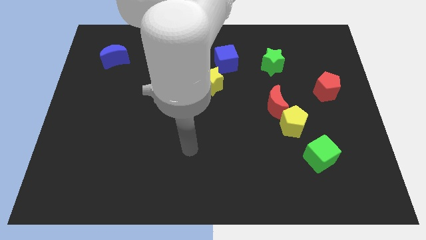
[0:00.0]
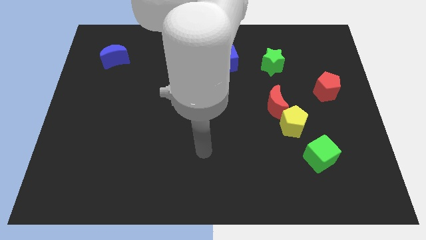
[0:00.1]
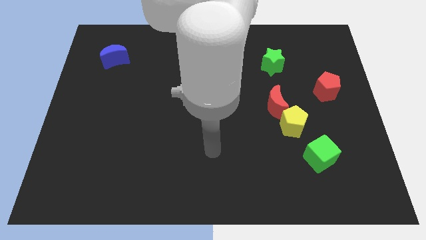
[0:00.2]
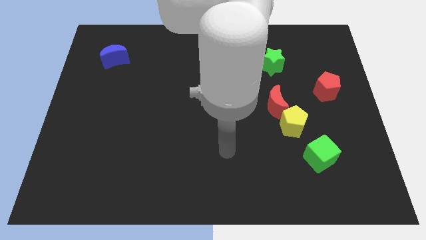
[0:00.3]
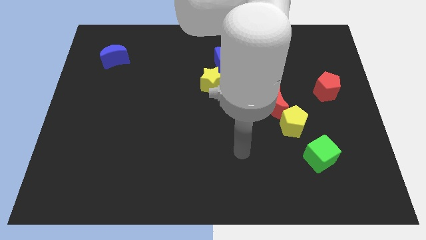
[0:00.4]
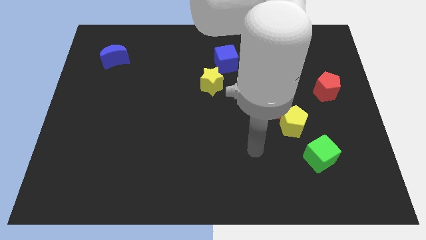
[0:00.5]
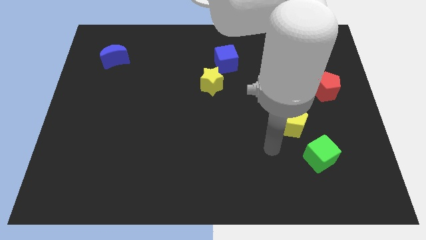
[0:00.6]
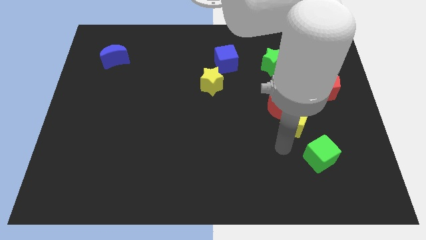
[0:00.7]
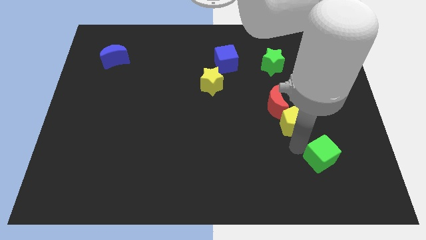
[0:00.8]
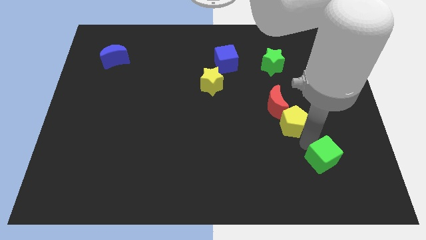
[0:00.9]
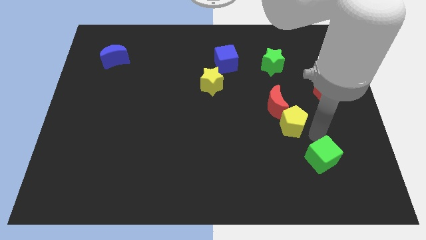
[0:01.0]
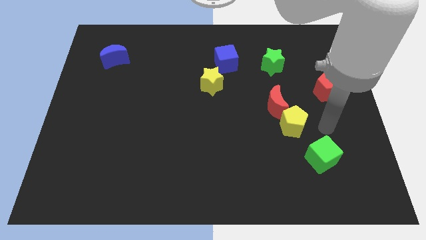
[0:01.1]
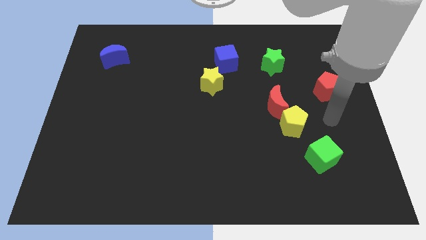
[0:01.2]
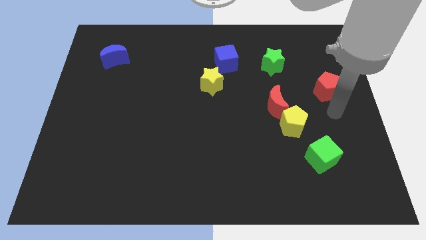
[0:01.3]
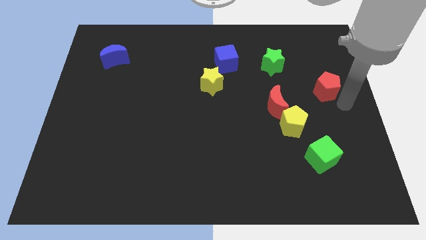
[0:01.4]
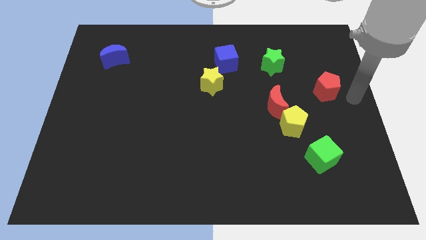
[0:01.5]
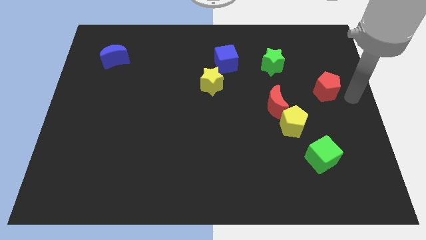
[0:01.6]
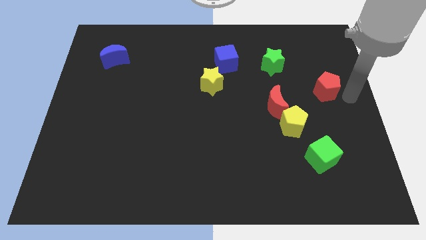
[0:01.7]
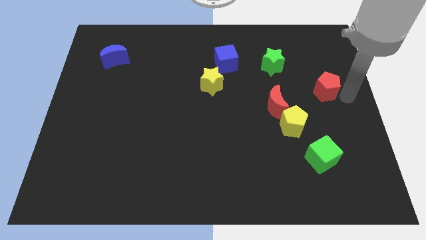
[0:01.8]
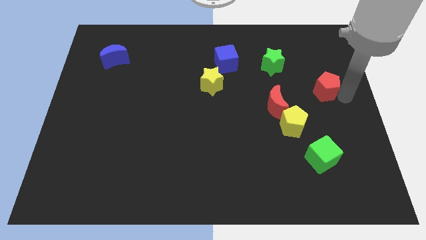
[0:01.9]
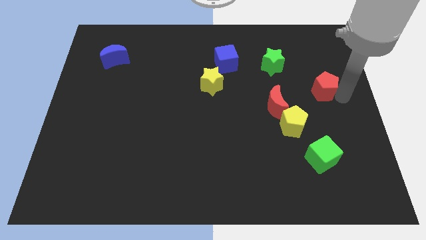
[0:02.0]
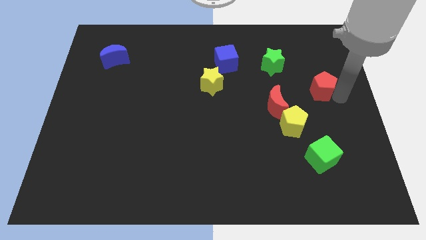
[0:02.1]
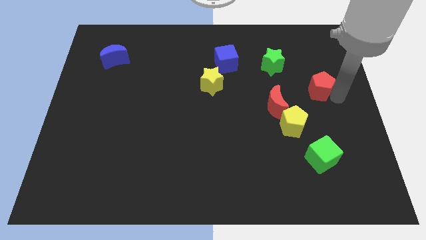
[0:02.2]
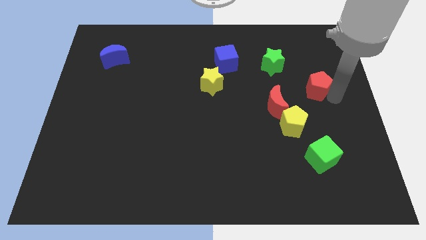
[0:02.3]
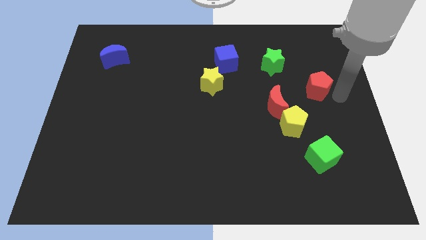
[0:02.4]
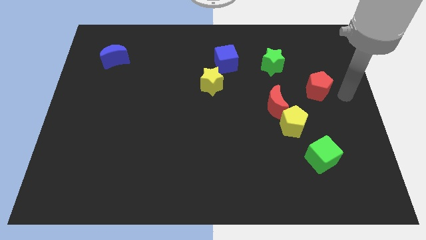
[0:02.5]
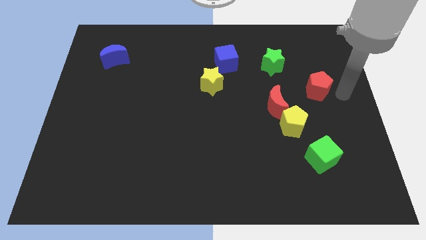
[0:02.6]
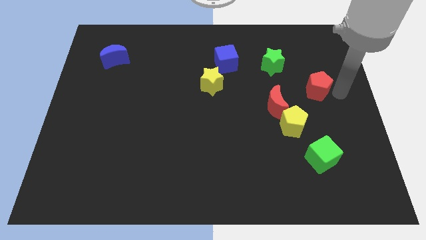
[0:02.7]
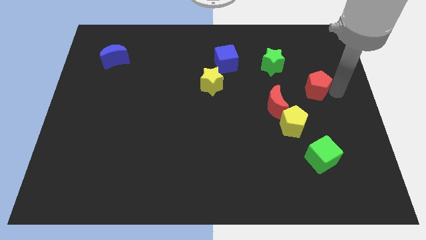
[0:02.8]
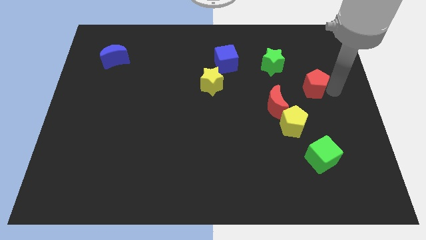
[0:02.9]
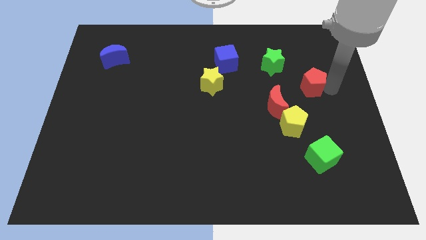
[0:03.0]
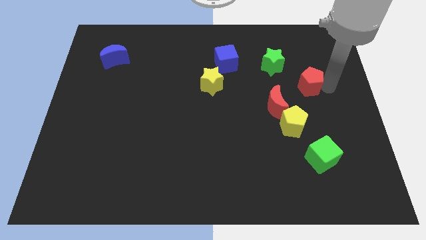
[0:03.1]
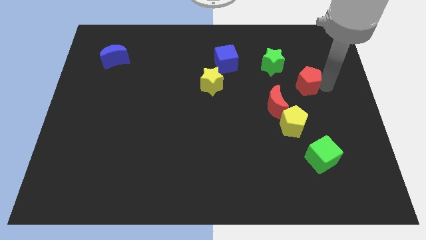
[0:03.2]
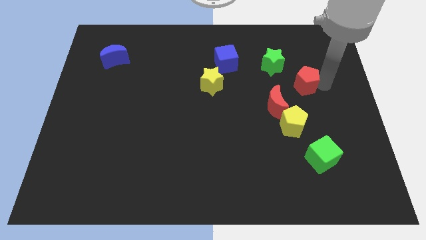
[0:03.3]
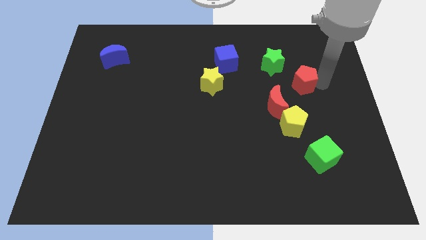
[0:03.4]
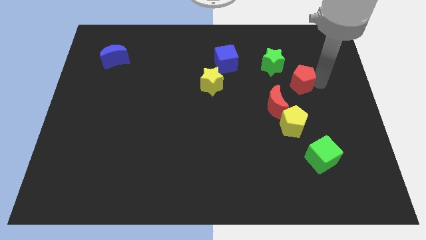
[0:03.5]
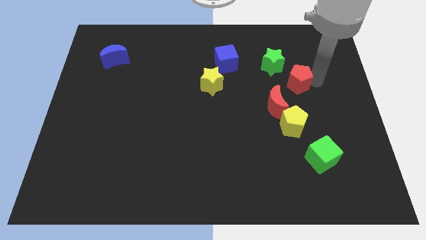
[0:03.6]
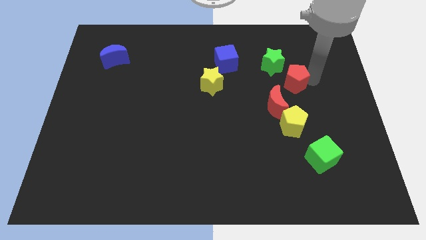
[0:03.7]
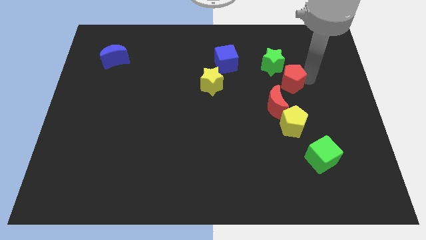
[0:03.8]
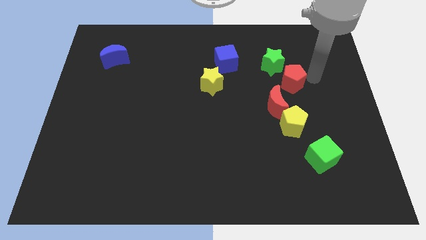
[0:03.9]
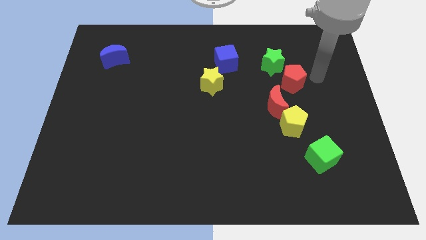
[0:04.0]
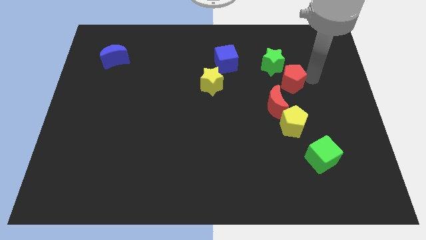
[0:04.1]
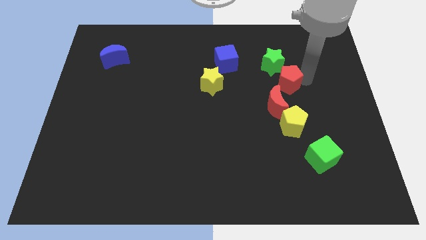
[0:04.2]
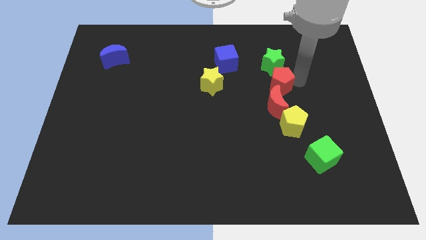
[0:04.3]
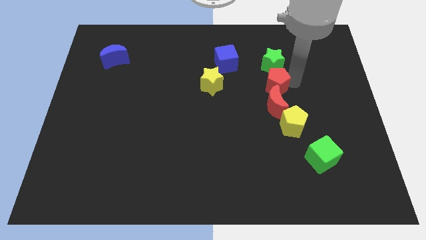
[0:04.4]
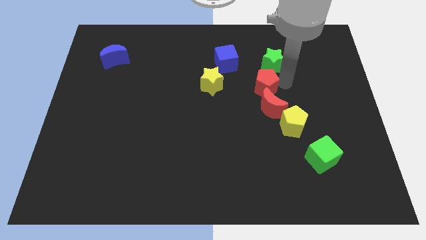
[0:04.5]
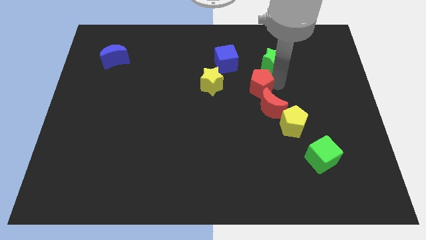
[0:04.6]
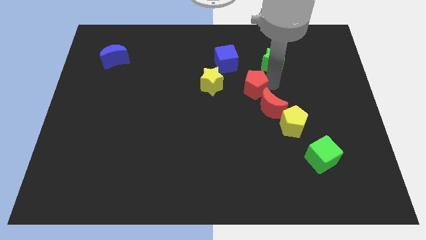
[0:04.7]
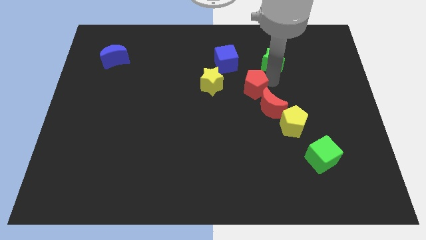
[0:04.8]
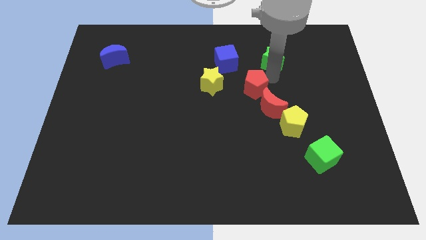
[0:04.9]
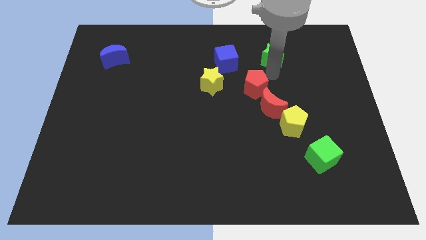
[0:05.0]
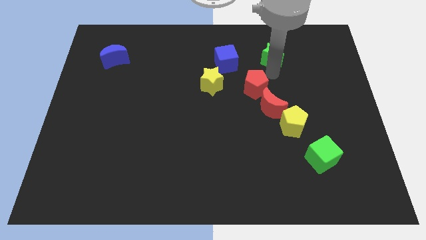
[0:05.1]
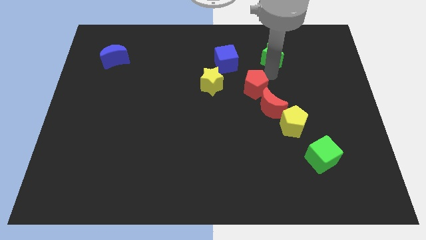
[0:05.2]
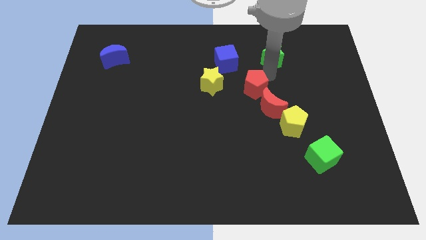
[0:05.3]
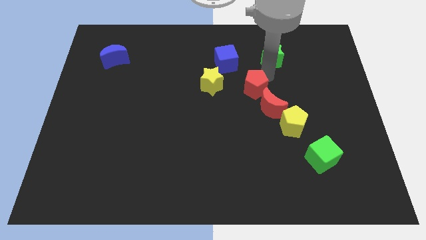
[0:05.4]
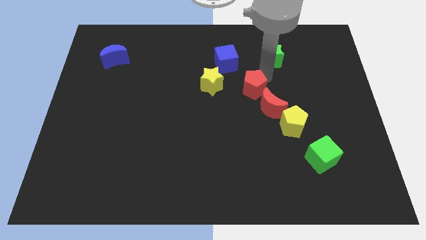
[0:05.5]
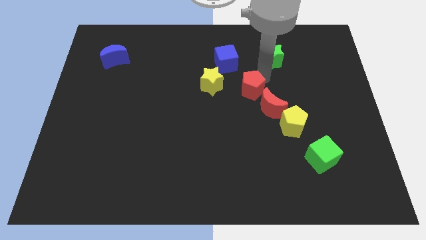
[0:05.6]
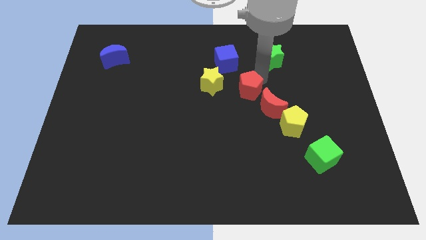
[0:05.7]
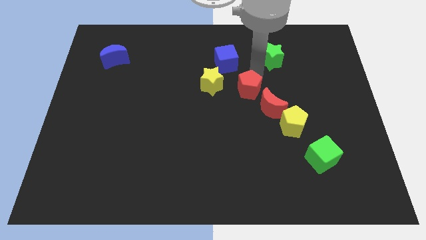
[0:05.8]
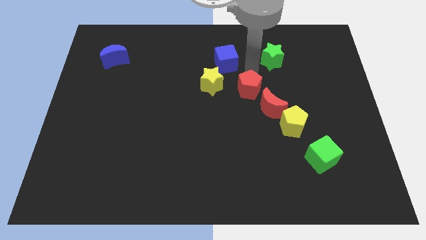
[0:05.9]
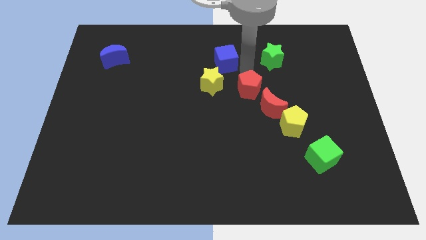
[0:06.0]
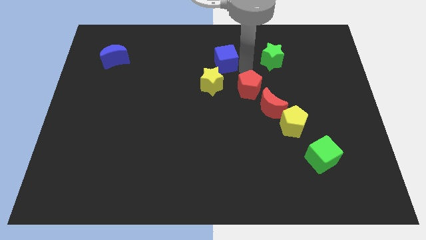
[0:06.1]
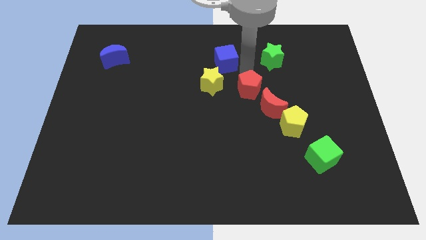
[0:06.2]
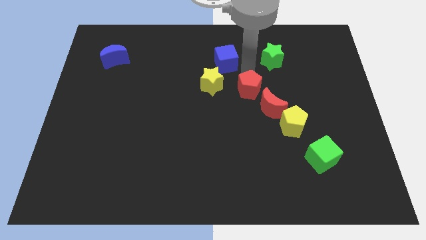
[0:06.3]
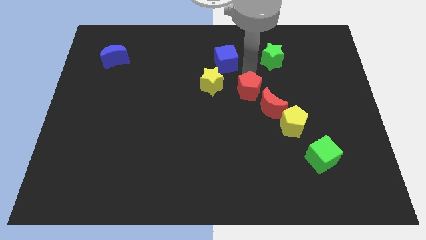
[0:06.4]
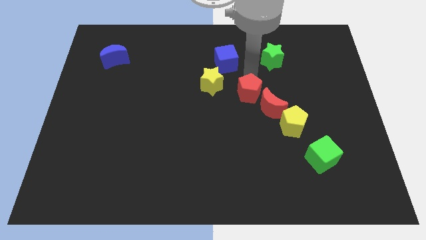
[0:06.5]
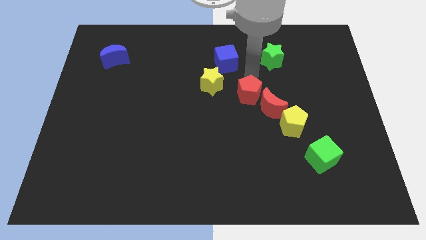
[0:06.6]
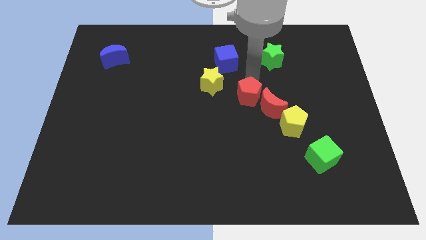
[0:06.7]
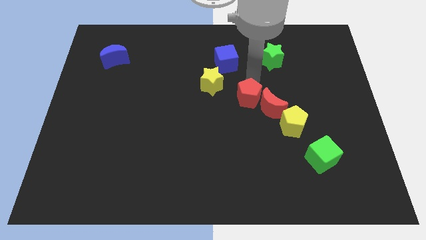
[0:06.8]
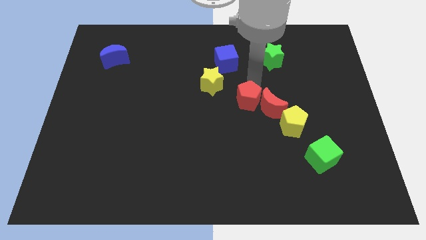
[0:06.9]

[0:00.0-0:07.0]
slide the red pentagon somewhat diagonally downwards and to the left

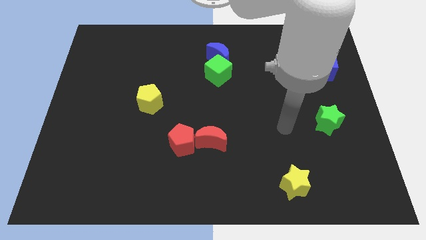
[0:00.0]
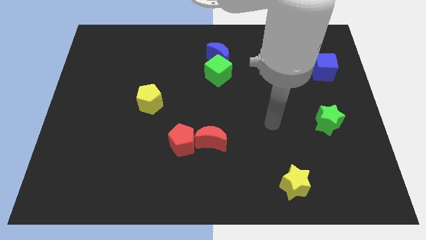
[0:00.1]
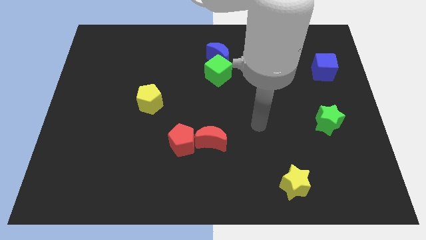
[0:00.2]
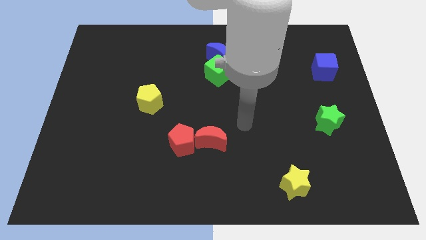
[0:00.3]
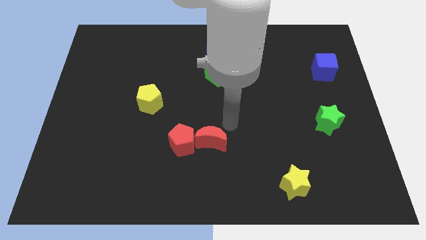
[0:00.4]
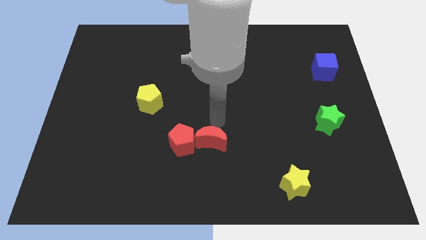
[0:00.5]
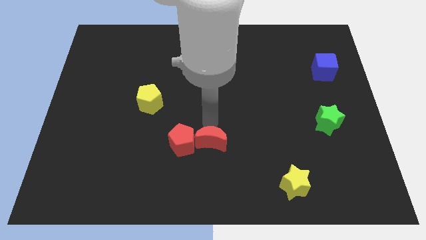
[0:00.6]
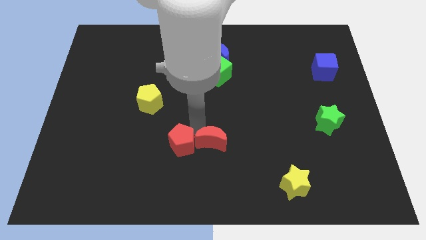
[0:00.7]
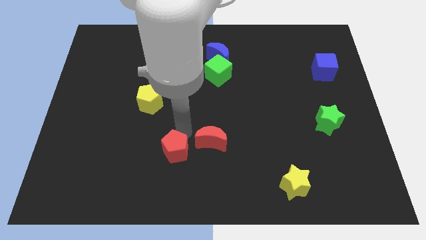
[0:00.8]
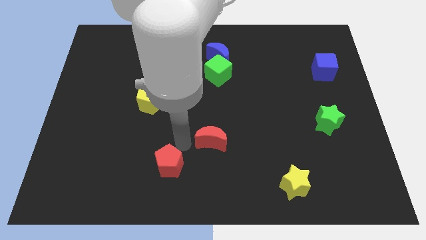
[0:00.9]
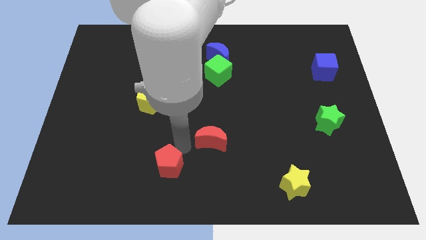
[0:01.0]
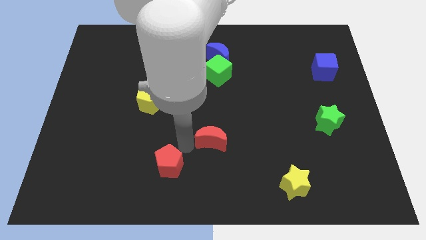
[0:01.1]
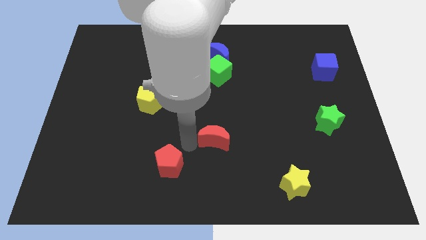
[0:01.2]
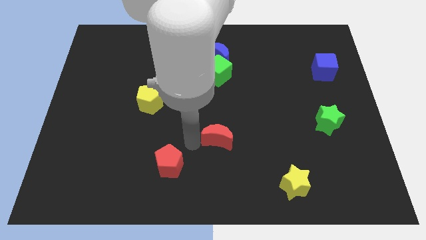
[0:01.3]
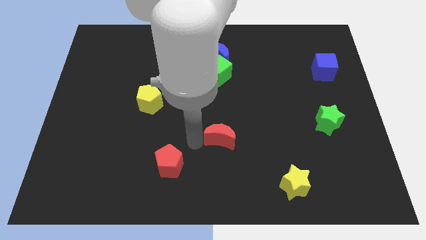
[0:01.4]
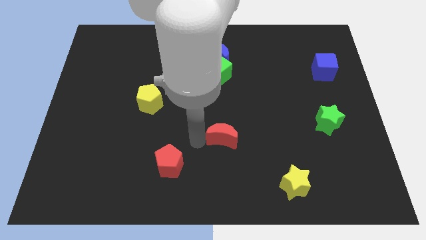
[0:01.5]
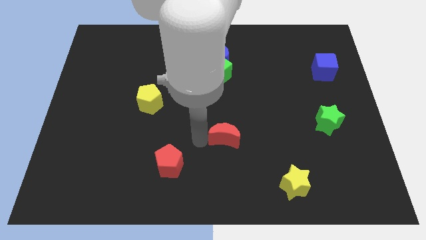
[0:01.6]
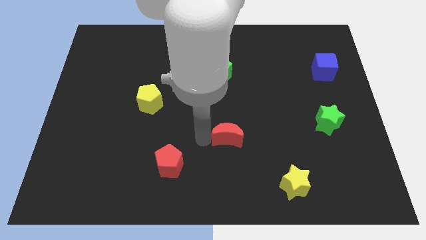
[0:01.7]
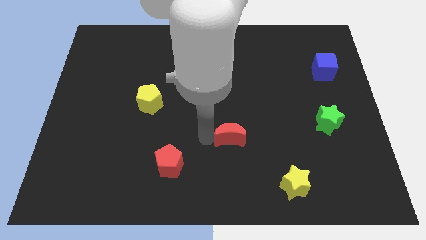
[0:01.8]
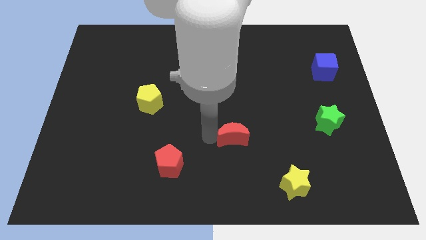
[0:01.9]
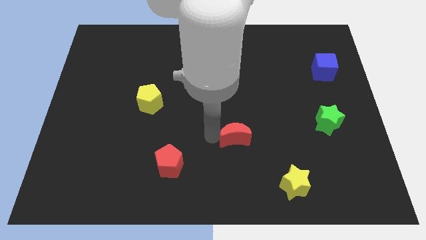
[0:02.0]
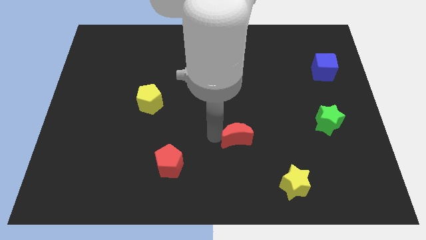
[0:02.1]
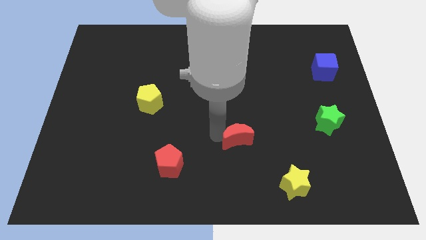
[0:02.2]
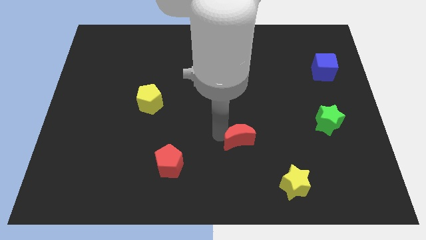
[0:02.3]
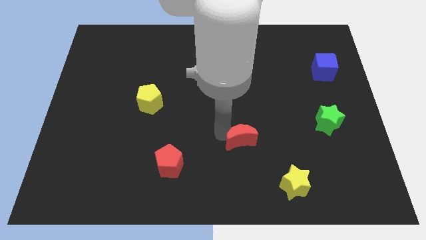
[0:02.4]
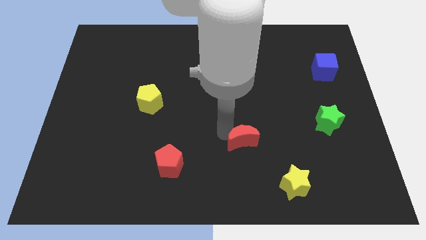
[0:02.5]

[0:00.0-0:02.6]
slide the red moon right a little
